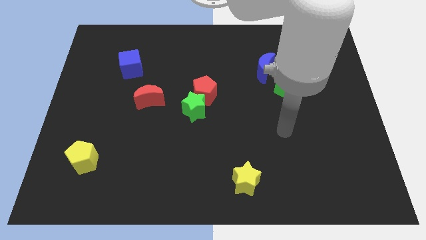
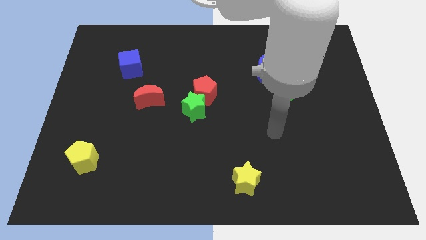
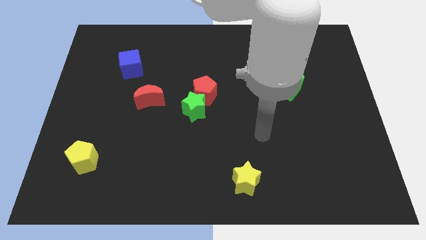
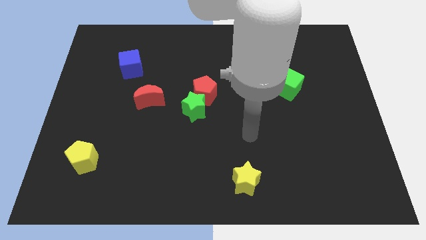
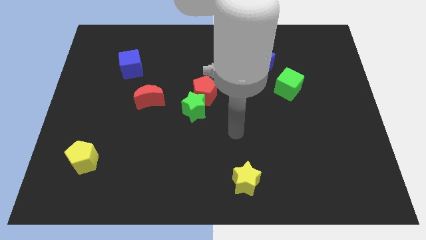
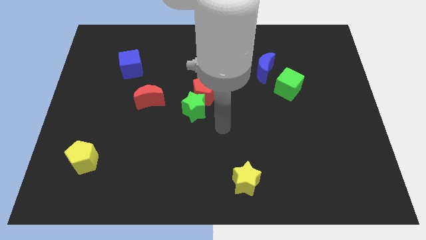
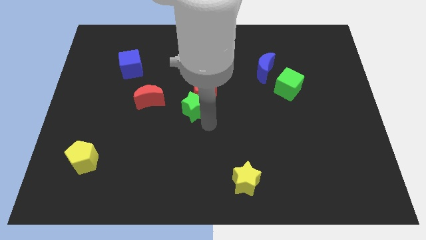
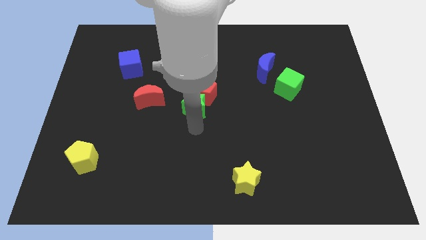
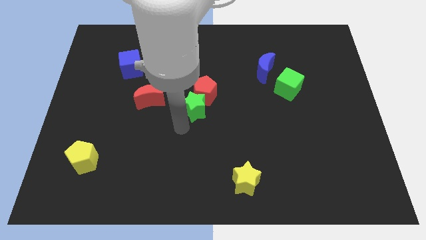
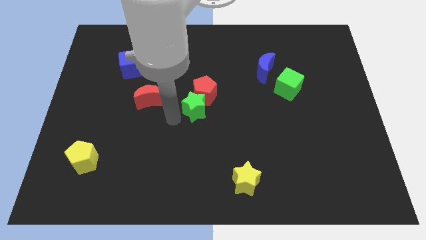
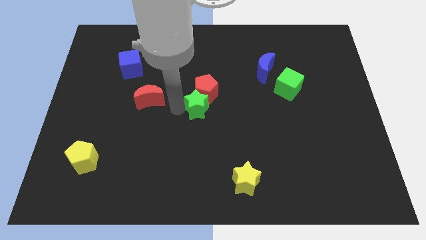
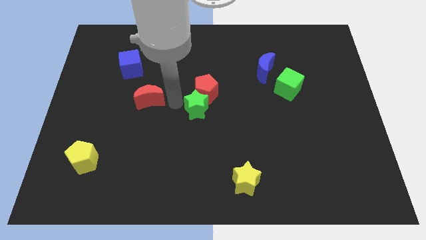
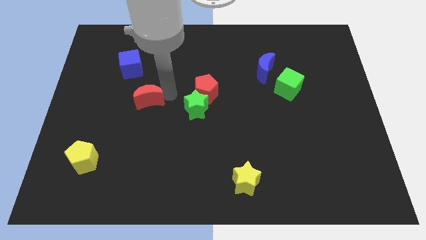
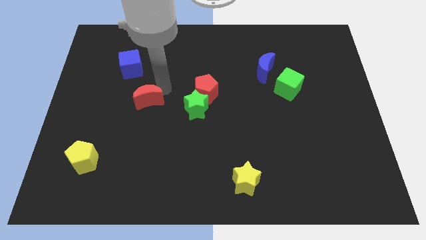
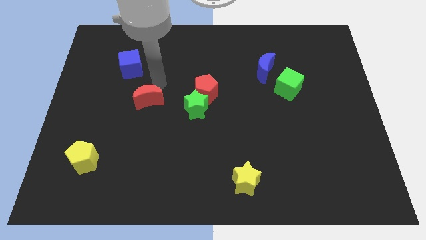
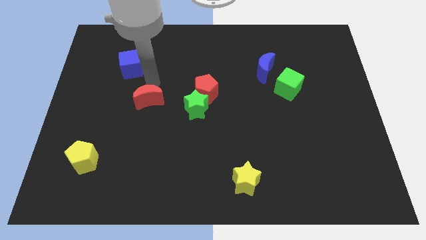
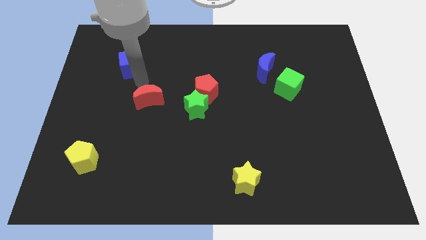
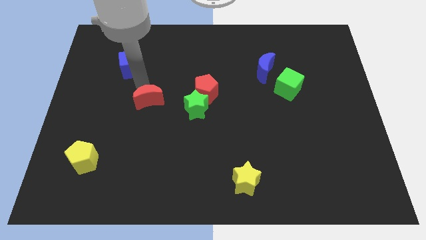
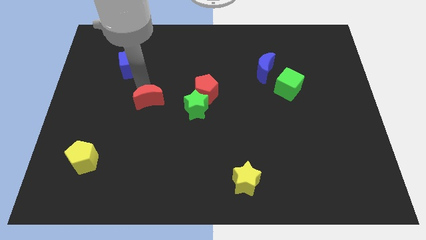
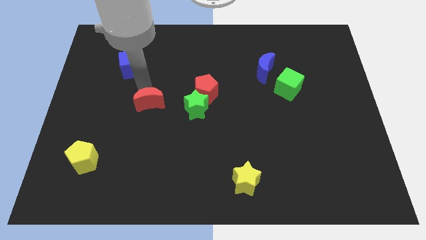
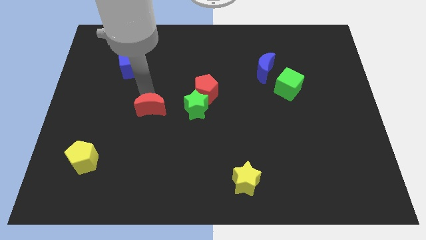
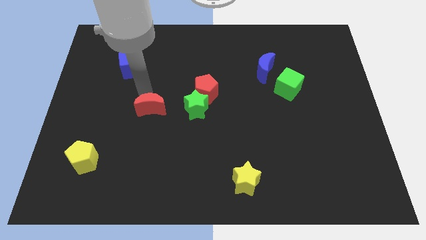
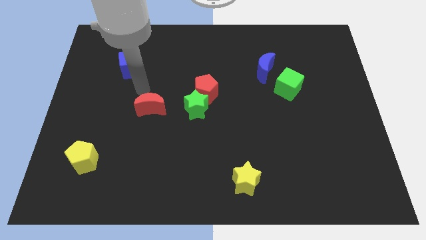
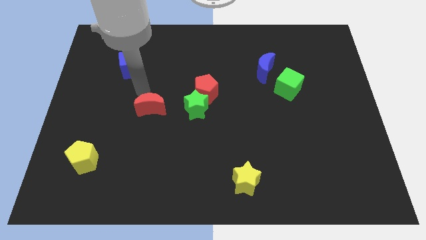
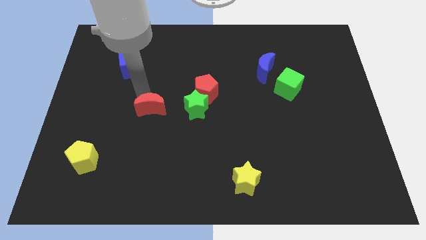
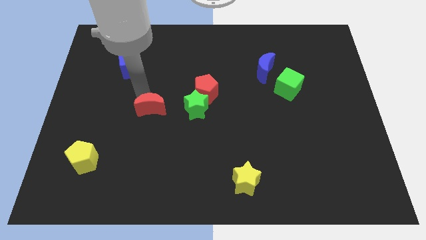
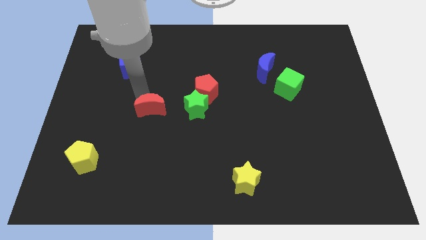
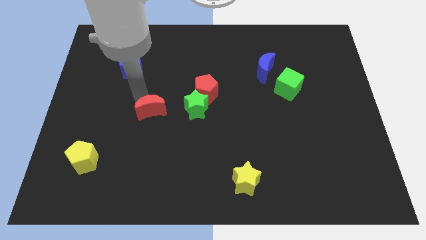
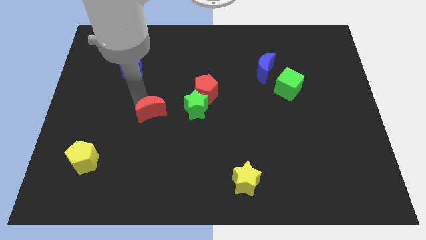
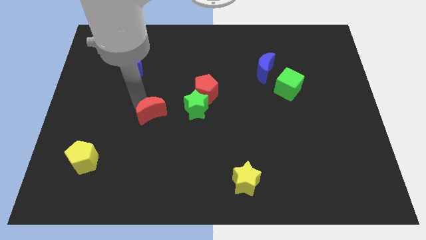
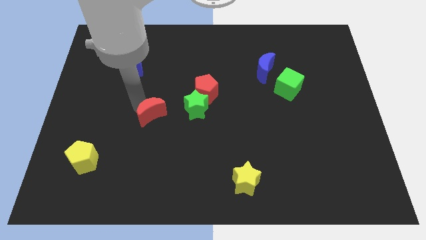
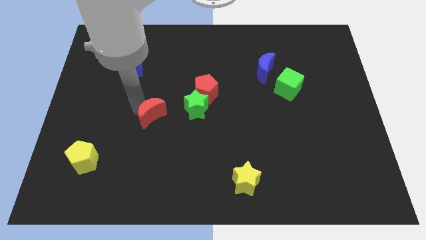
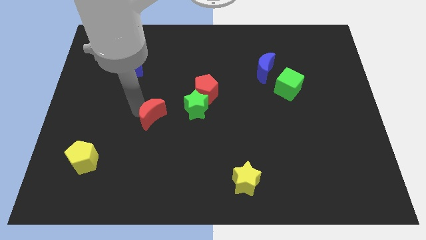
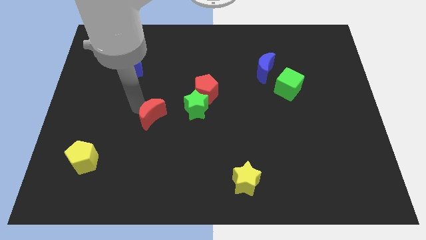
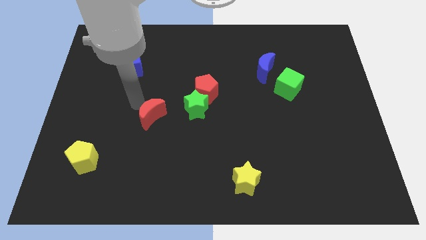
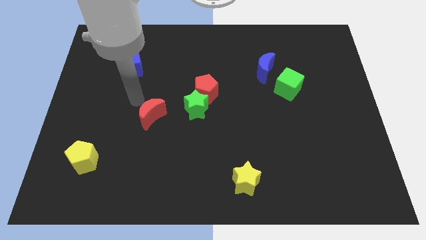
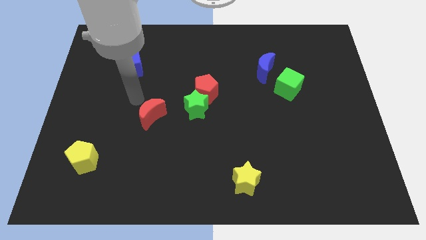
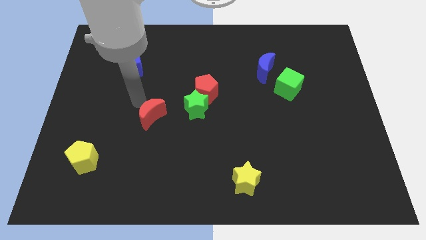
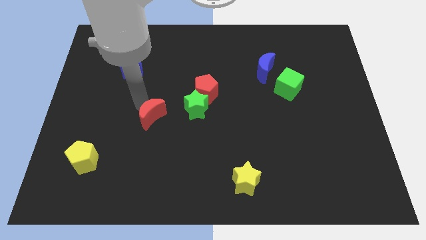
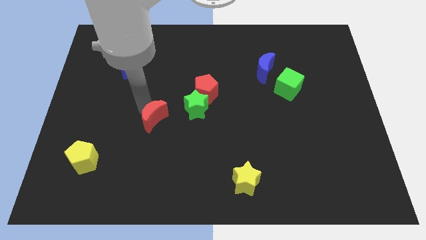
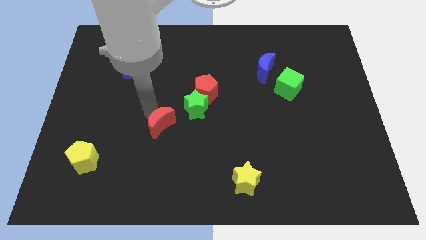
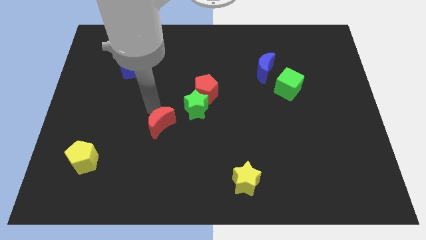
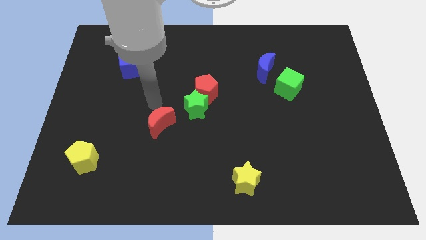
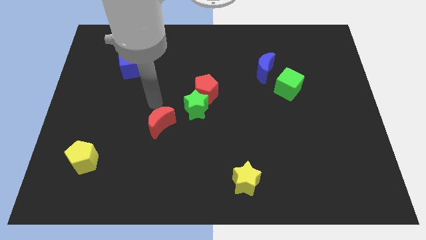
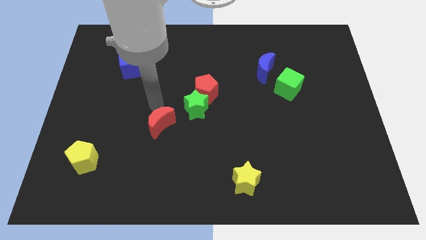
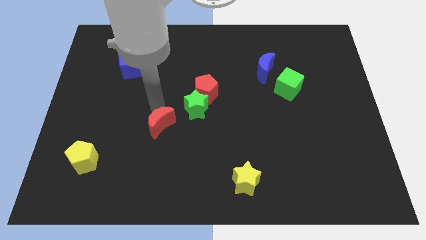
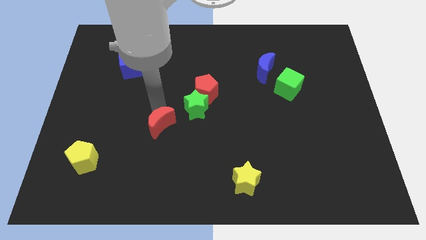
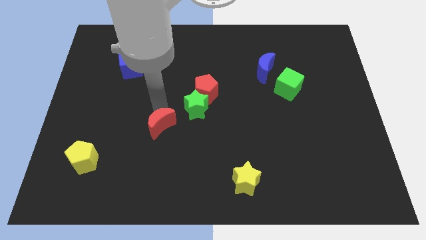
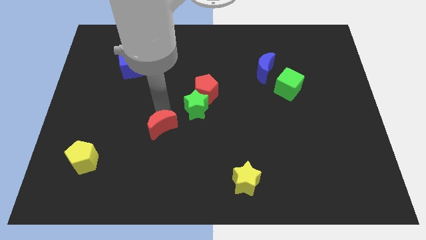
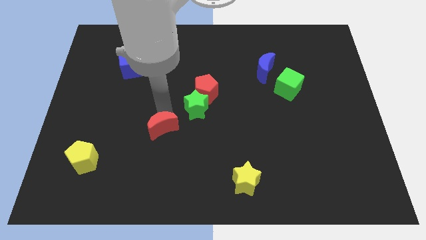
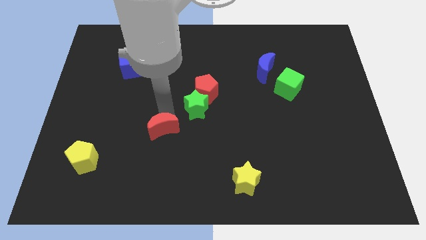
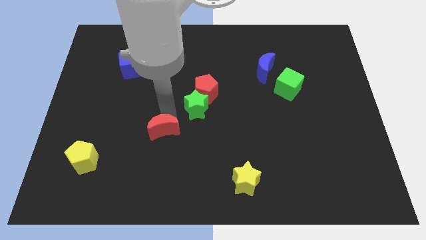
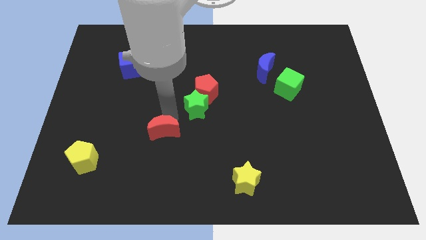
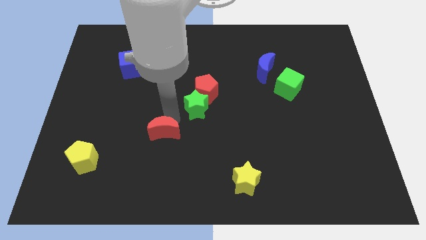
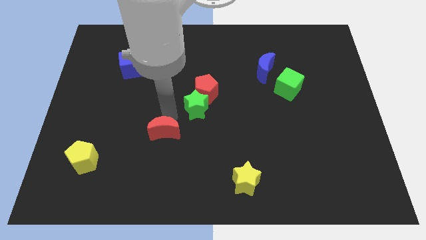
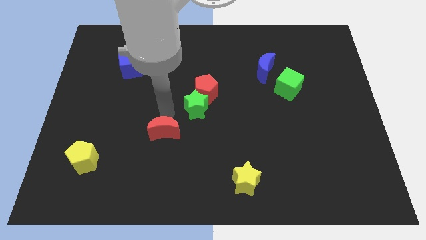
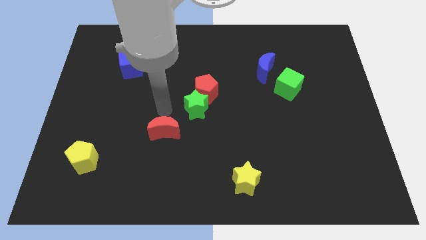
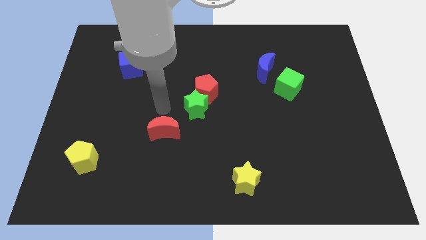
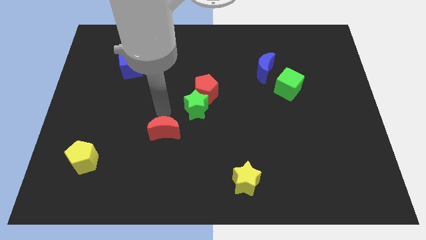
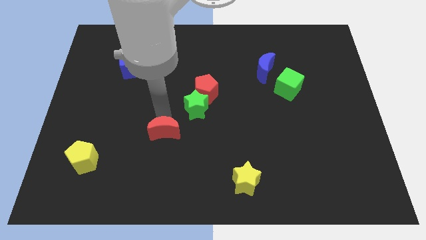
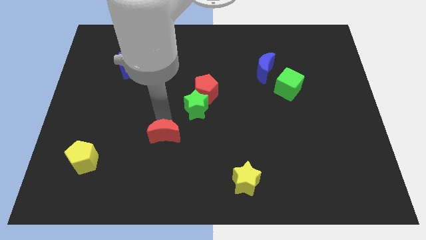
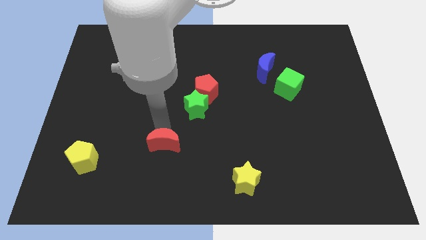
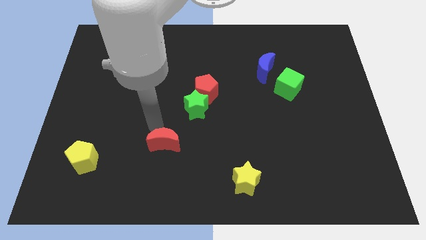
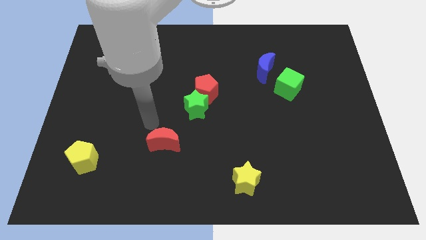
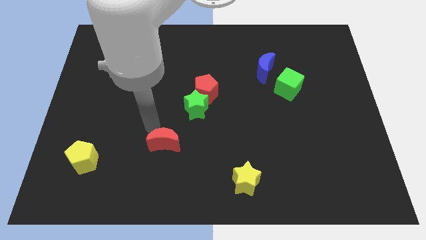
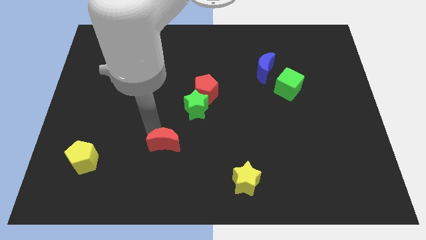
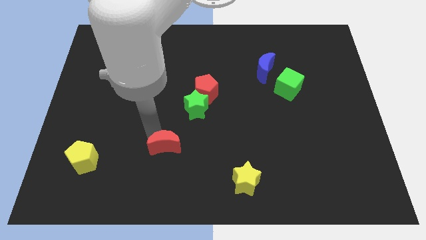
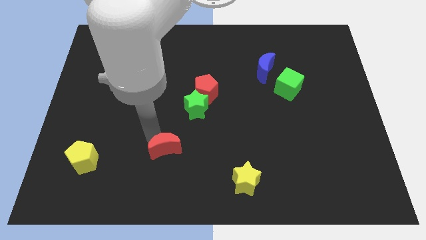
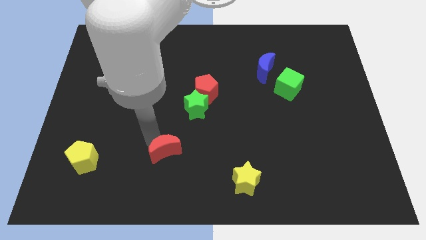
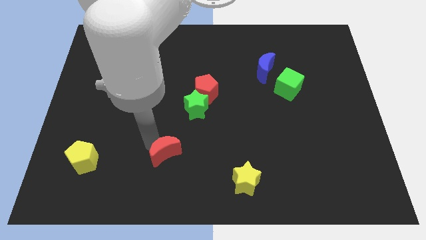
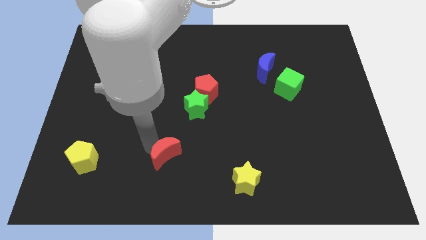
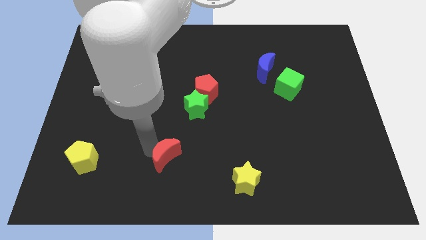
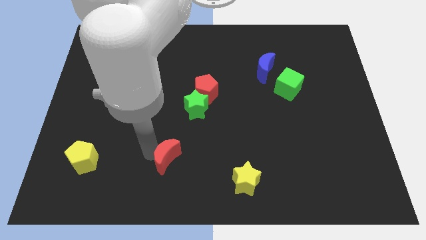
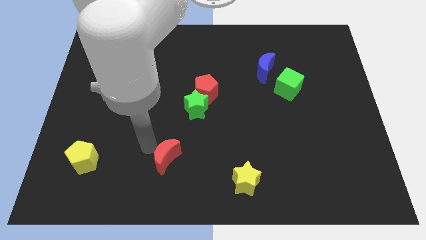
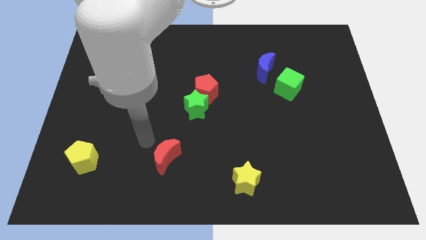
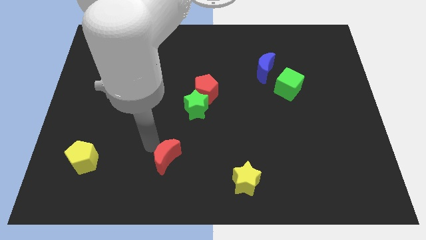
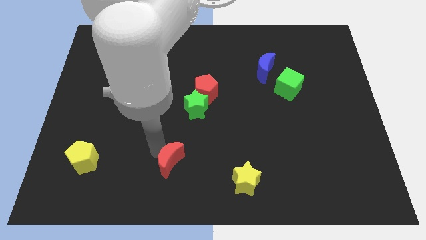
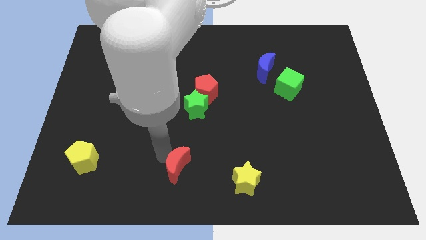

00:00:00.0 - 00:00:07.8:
push the red moon just left of the yellow star
